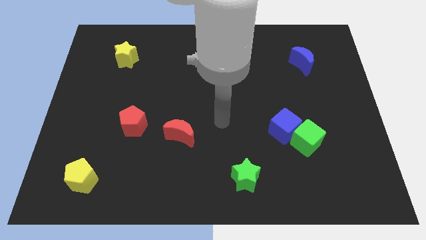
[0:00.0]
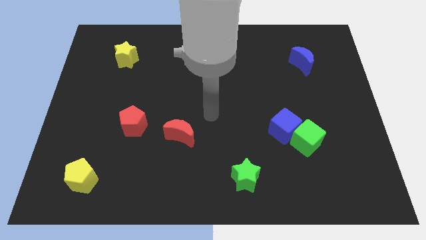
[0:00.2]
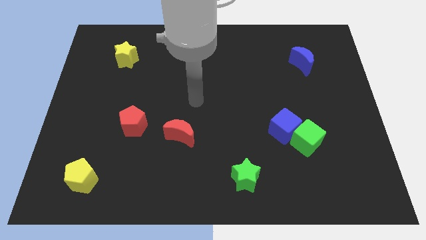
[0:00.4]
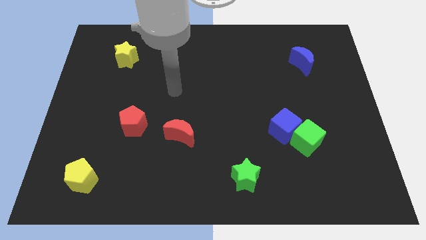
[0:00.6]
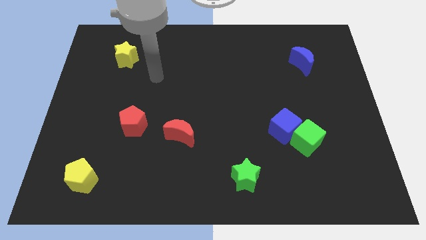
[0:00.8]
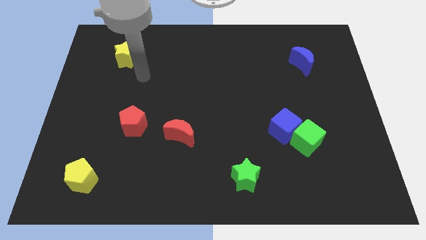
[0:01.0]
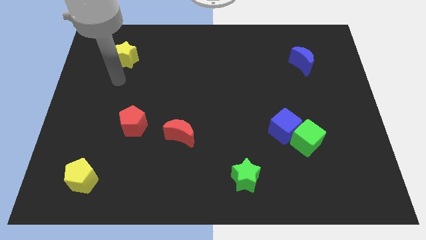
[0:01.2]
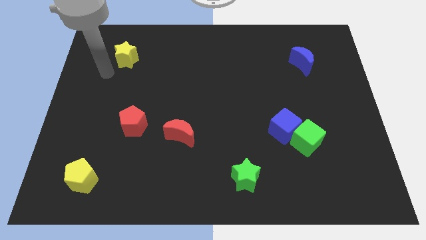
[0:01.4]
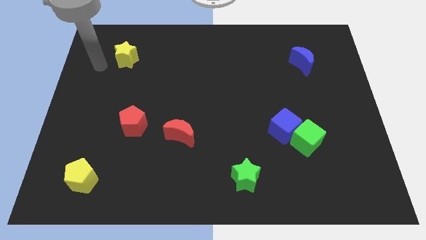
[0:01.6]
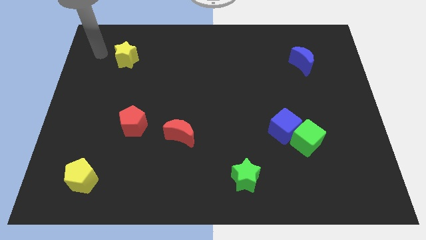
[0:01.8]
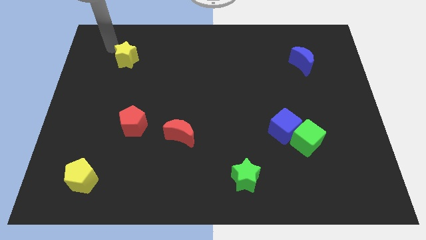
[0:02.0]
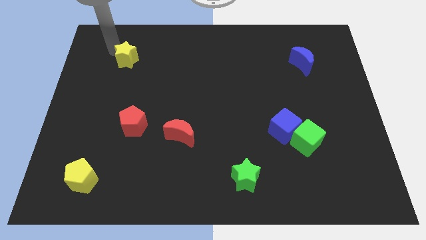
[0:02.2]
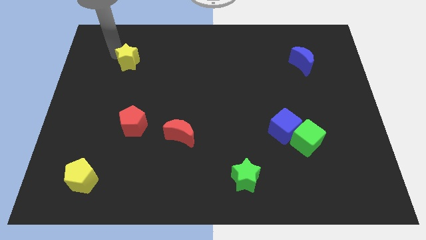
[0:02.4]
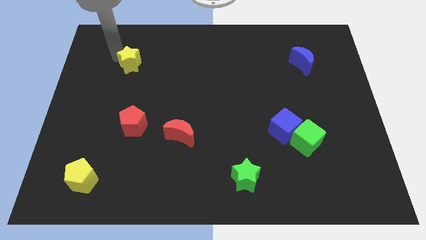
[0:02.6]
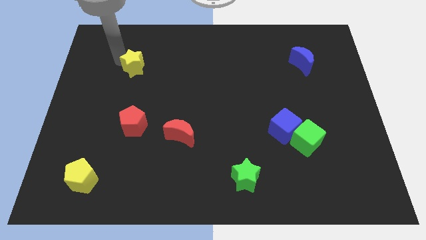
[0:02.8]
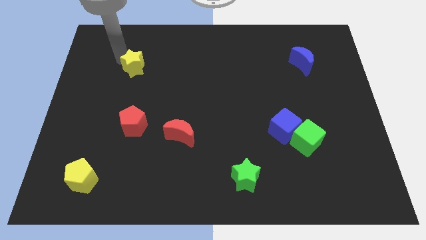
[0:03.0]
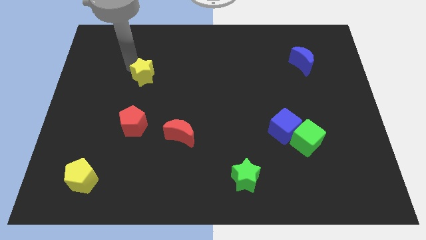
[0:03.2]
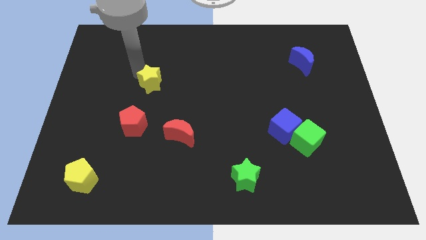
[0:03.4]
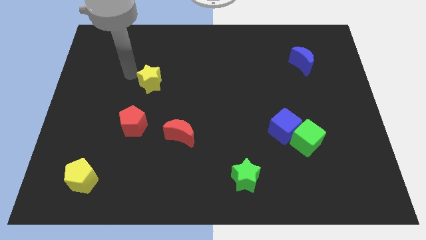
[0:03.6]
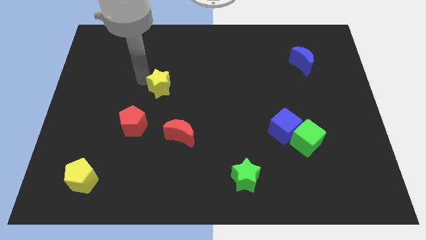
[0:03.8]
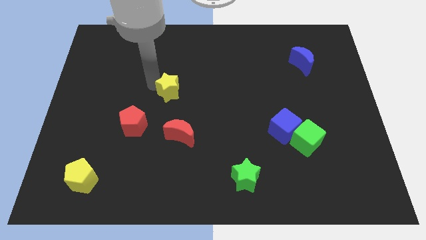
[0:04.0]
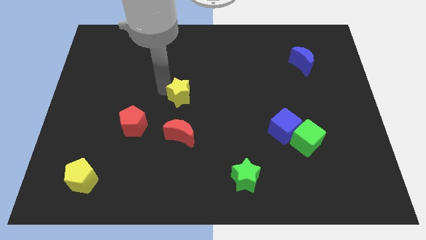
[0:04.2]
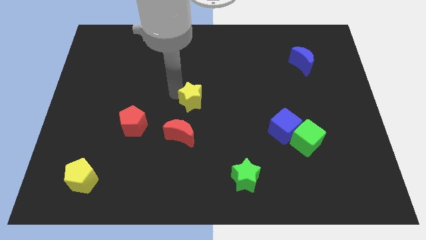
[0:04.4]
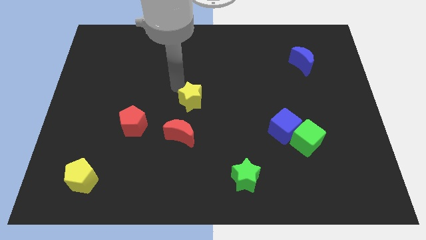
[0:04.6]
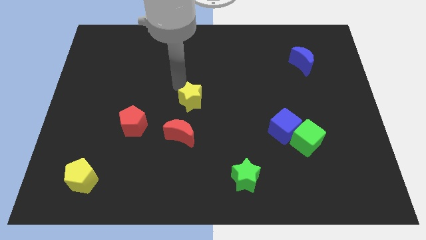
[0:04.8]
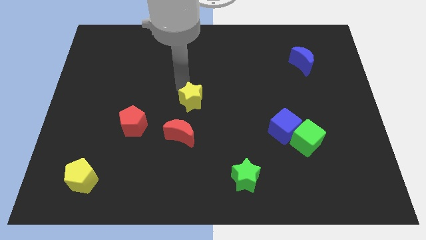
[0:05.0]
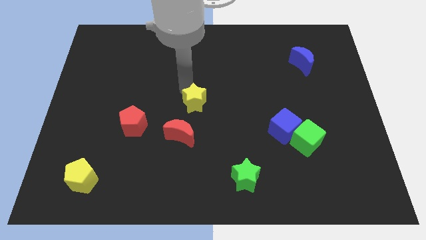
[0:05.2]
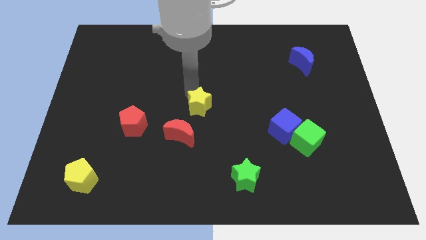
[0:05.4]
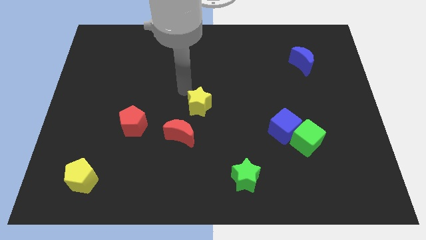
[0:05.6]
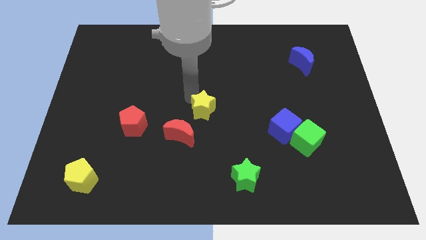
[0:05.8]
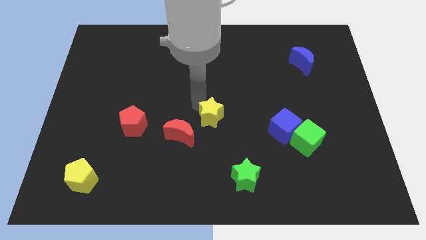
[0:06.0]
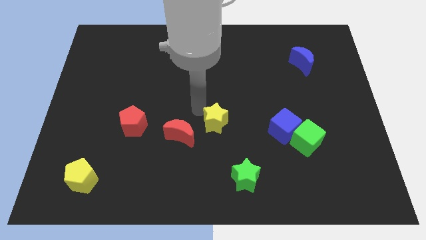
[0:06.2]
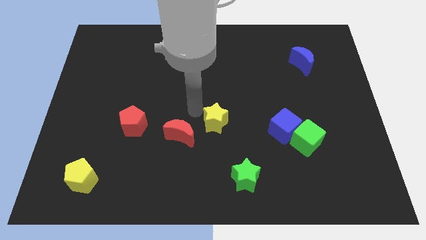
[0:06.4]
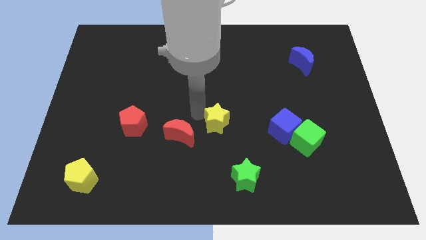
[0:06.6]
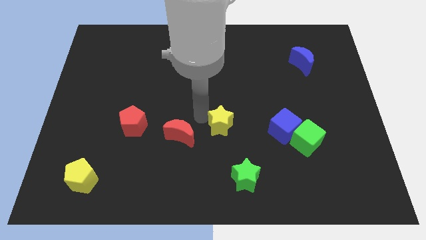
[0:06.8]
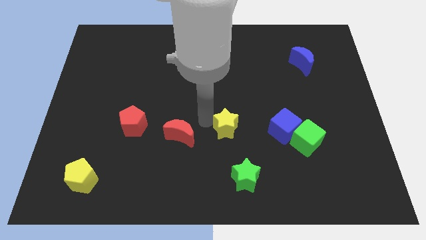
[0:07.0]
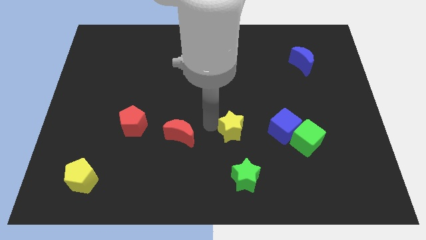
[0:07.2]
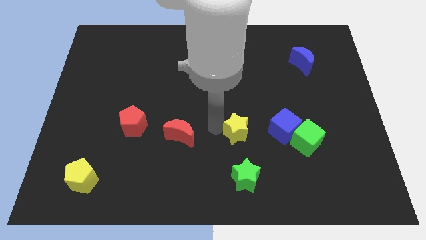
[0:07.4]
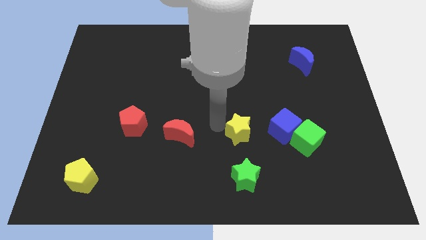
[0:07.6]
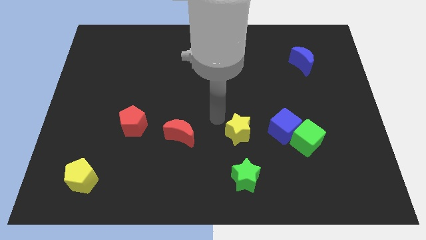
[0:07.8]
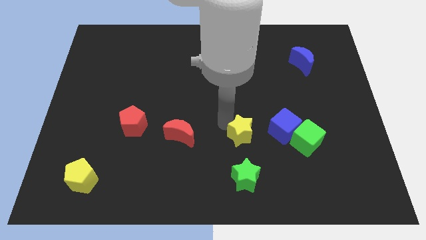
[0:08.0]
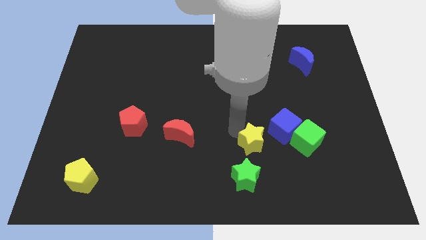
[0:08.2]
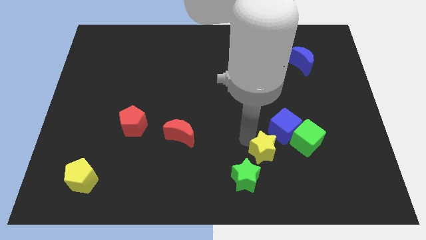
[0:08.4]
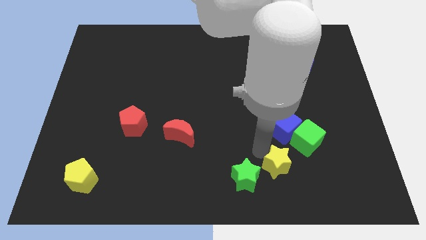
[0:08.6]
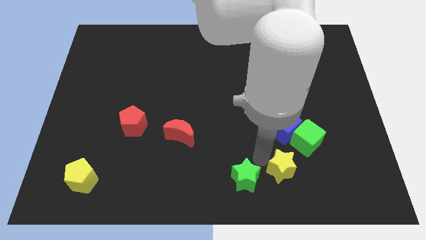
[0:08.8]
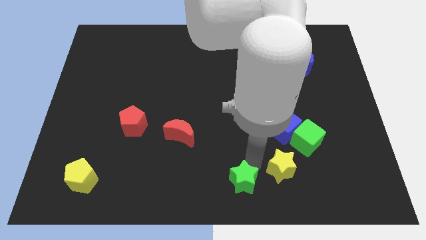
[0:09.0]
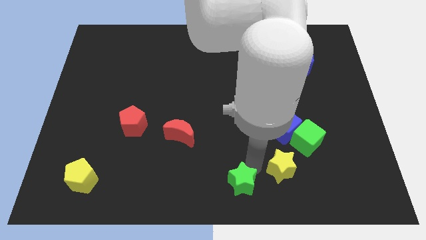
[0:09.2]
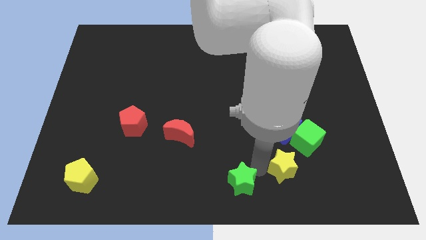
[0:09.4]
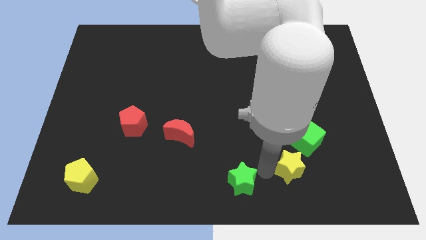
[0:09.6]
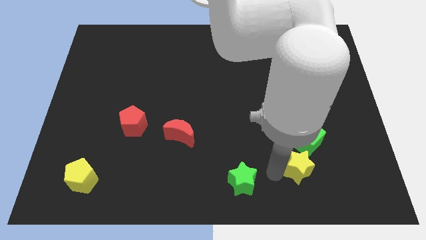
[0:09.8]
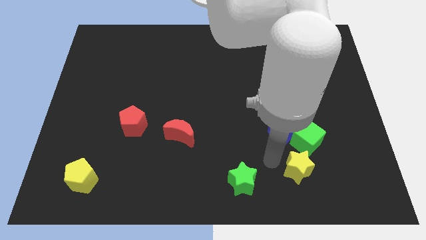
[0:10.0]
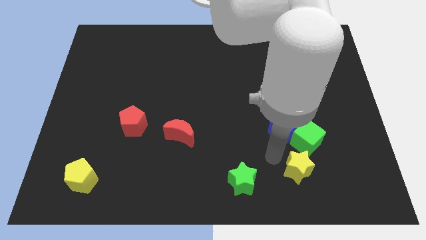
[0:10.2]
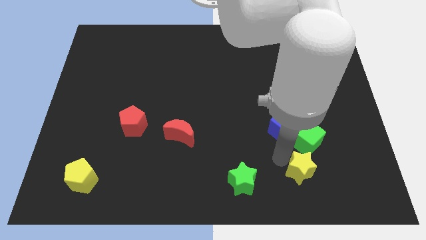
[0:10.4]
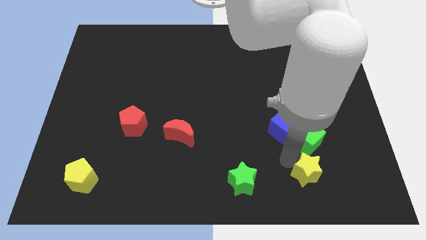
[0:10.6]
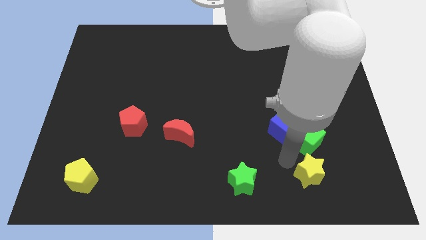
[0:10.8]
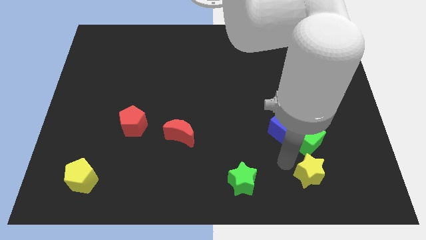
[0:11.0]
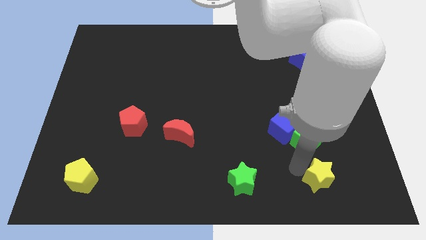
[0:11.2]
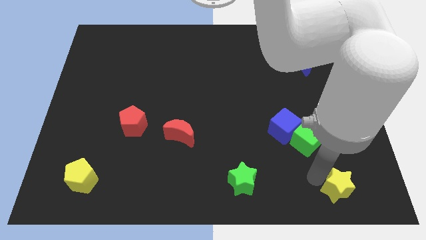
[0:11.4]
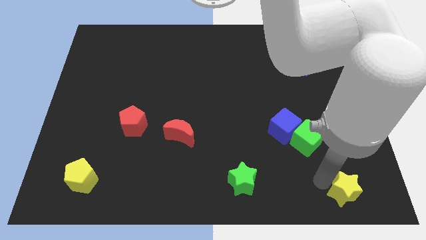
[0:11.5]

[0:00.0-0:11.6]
slide the yellow star to the bottom right corner
